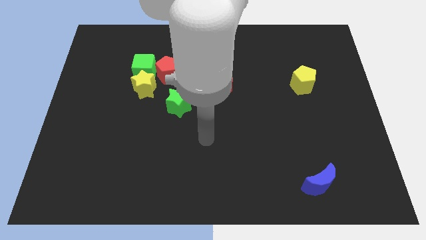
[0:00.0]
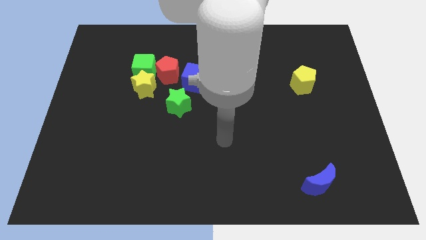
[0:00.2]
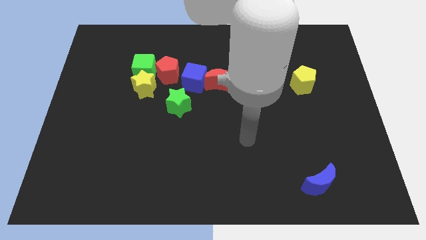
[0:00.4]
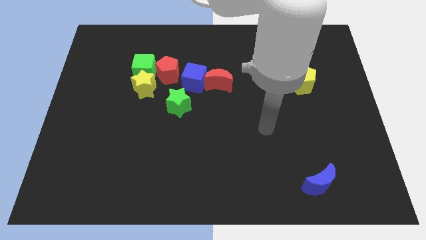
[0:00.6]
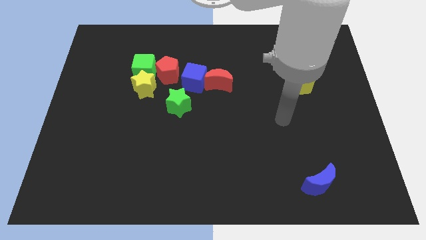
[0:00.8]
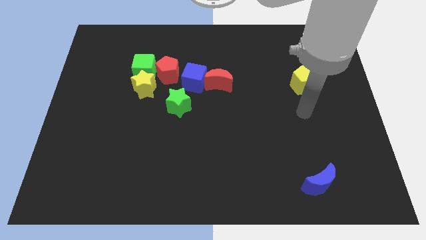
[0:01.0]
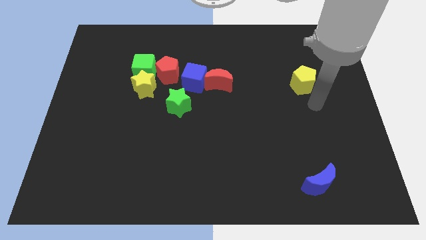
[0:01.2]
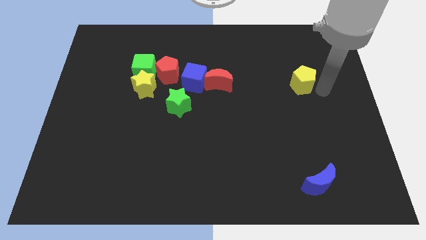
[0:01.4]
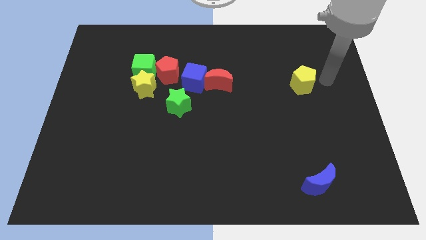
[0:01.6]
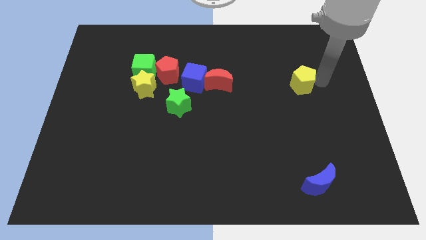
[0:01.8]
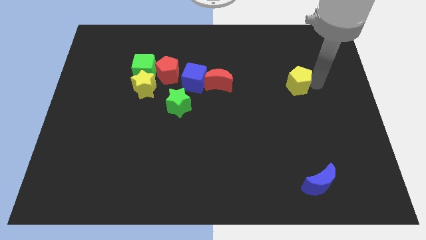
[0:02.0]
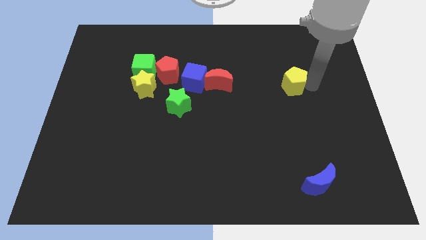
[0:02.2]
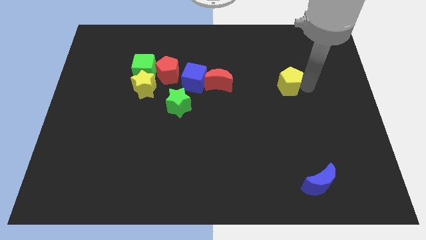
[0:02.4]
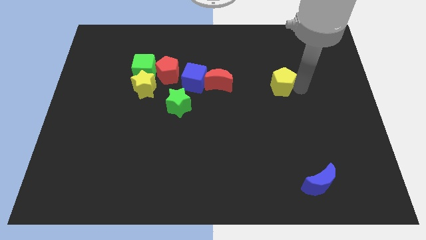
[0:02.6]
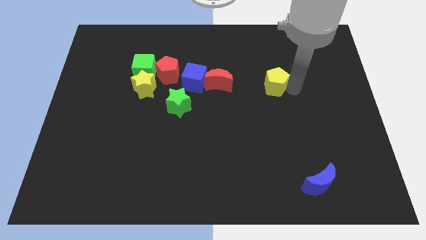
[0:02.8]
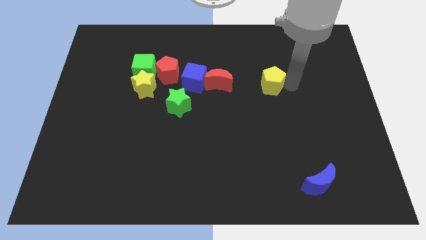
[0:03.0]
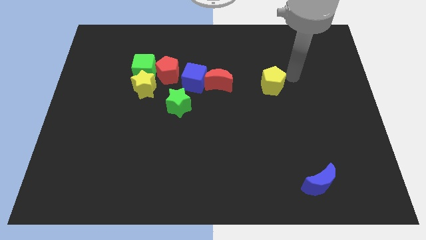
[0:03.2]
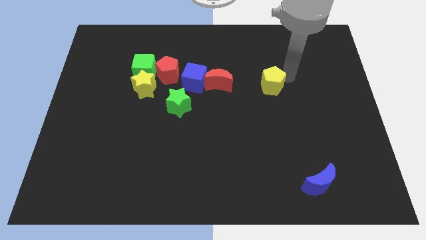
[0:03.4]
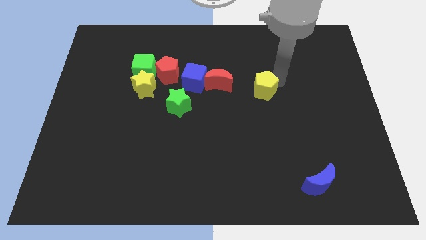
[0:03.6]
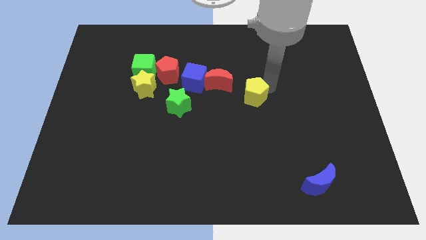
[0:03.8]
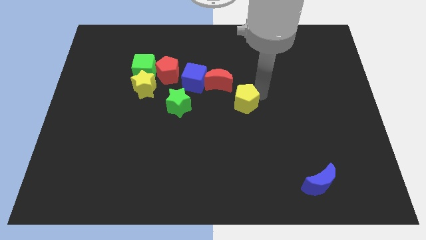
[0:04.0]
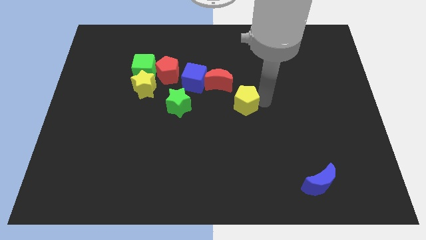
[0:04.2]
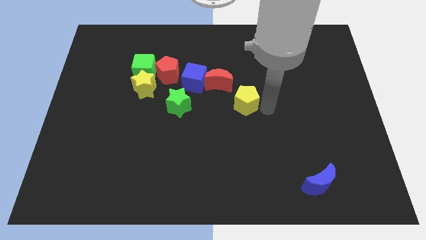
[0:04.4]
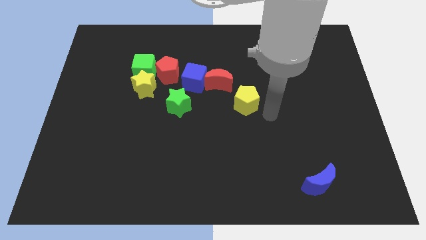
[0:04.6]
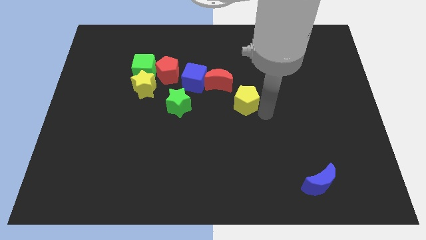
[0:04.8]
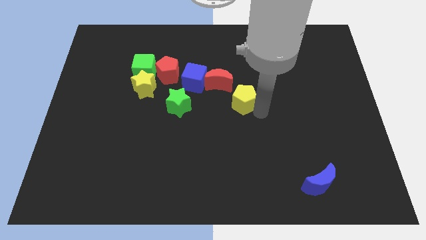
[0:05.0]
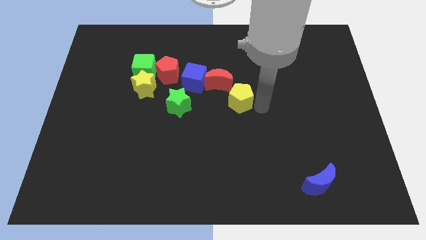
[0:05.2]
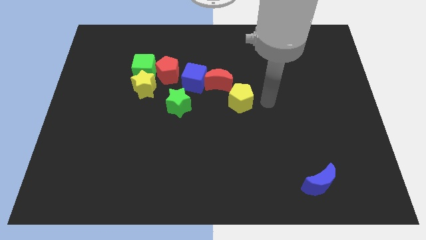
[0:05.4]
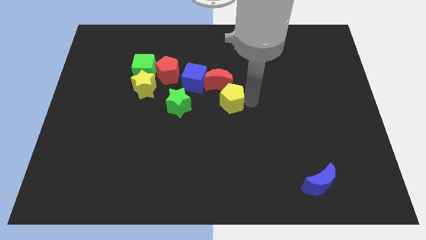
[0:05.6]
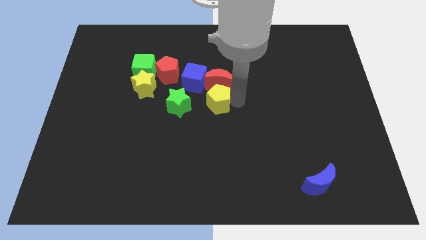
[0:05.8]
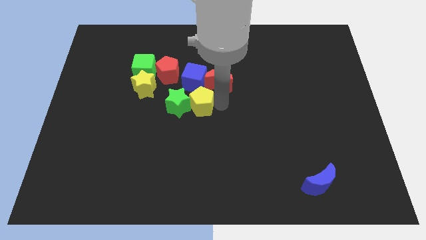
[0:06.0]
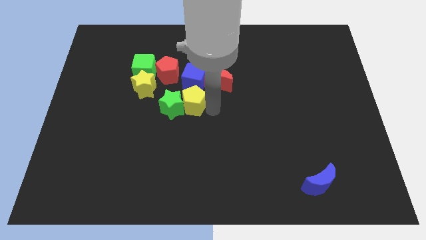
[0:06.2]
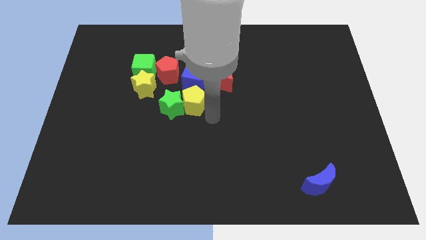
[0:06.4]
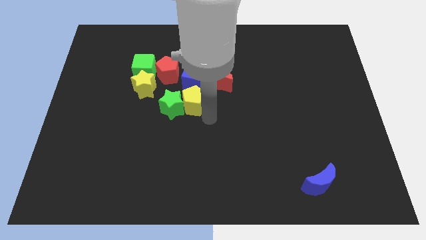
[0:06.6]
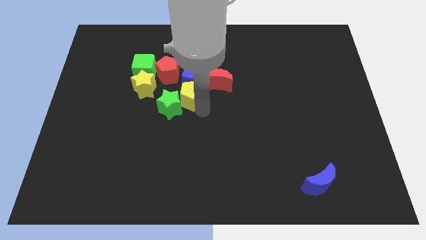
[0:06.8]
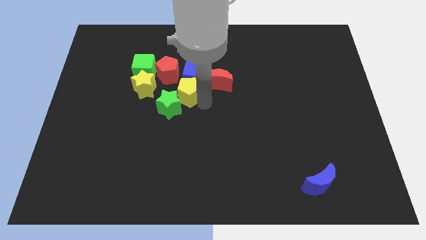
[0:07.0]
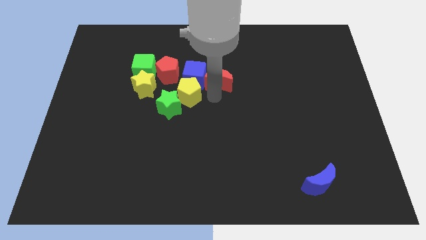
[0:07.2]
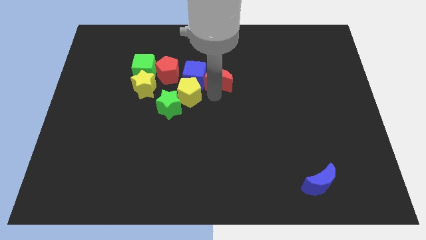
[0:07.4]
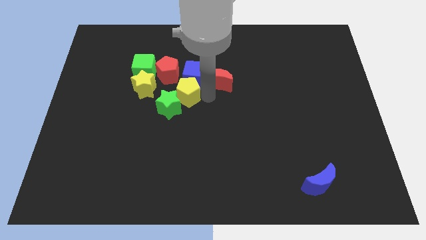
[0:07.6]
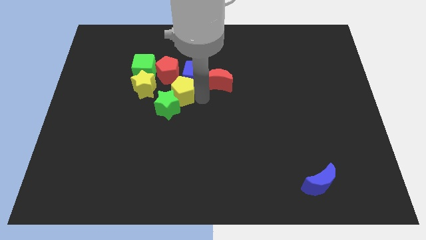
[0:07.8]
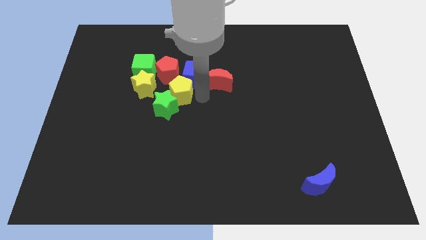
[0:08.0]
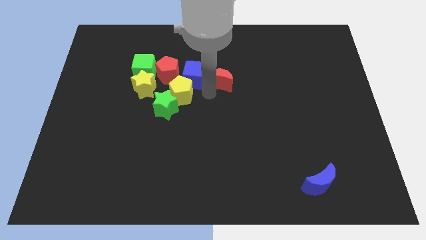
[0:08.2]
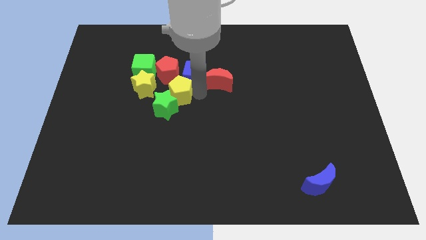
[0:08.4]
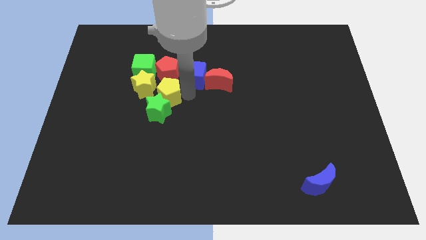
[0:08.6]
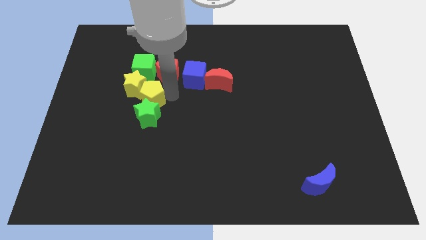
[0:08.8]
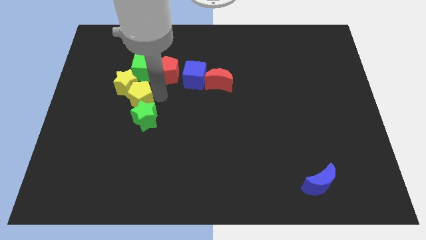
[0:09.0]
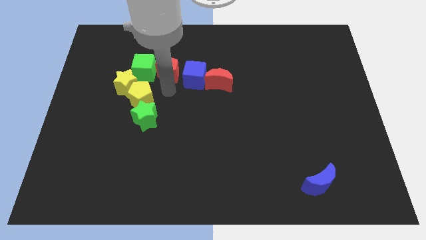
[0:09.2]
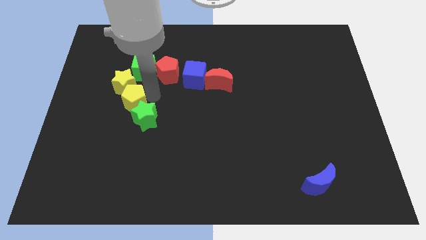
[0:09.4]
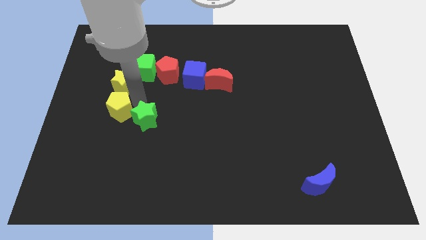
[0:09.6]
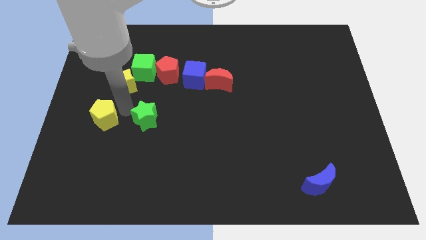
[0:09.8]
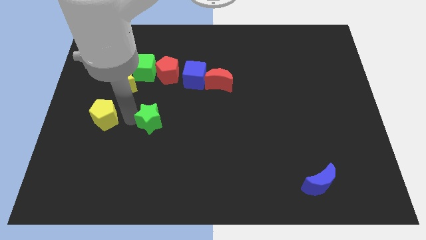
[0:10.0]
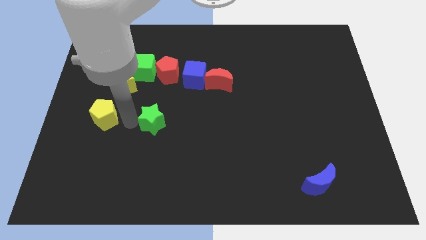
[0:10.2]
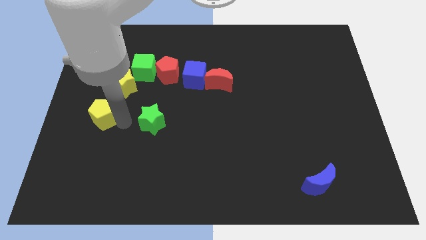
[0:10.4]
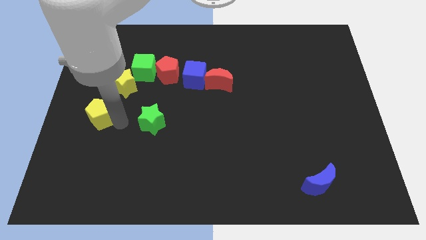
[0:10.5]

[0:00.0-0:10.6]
put the yellow pentagon to the left side

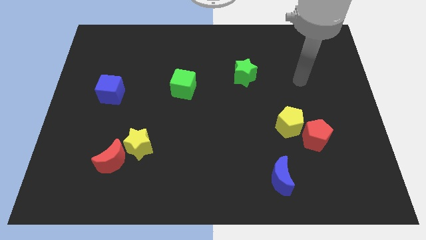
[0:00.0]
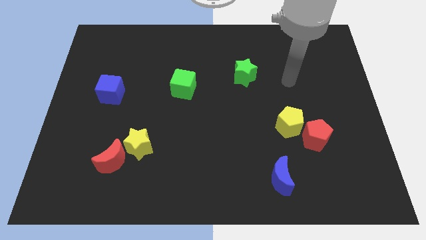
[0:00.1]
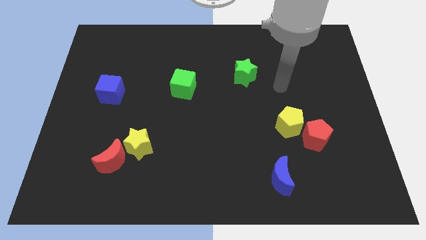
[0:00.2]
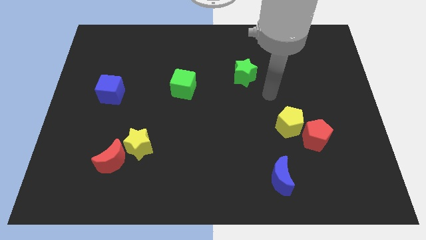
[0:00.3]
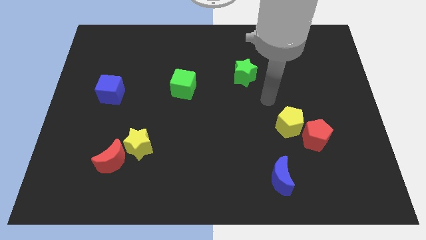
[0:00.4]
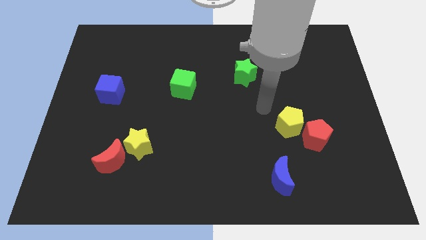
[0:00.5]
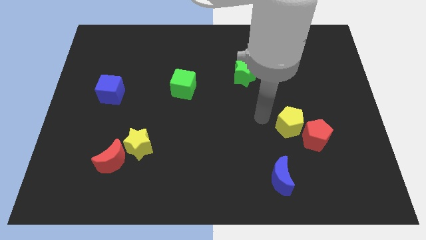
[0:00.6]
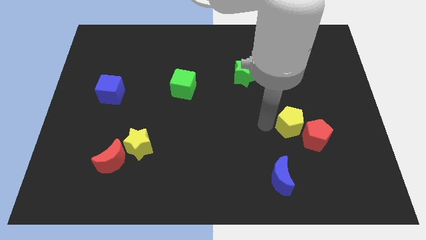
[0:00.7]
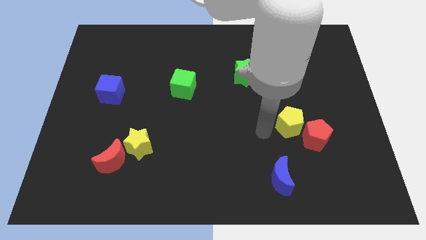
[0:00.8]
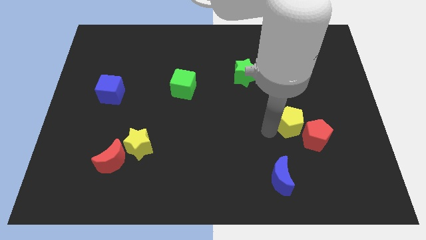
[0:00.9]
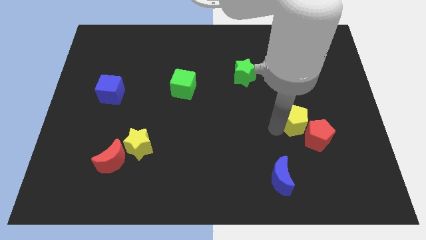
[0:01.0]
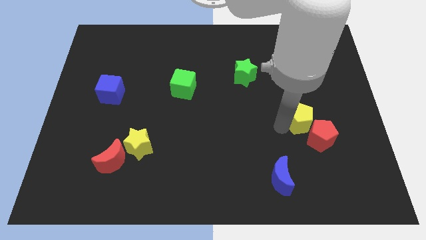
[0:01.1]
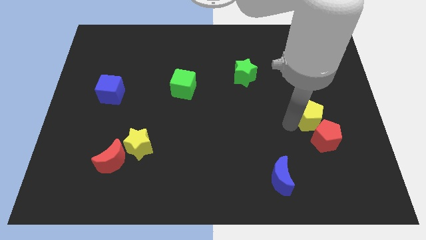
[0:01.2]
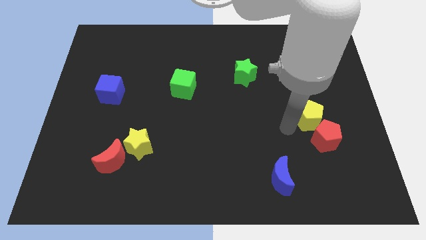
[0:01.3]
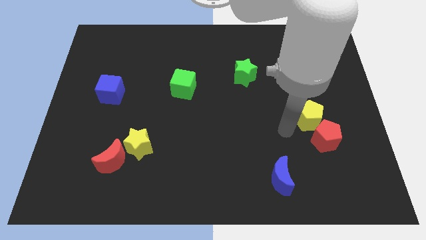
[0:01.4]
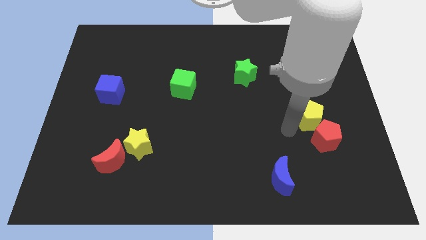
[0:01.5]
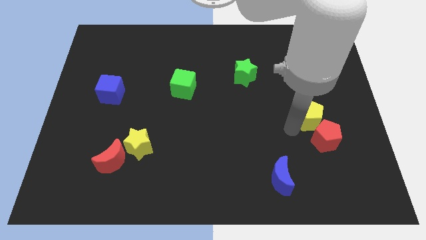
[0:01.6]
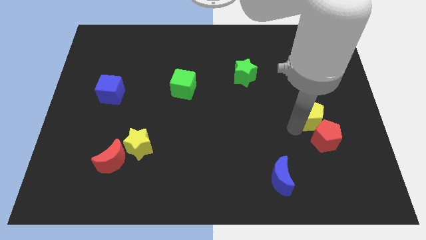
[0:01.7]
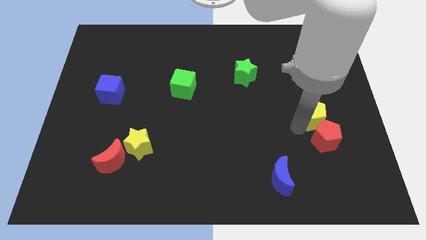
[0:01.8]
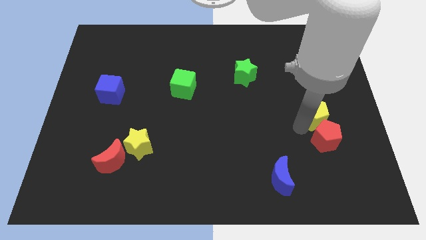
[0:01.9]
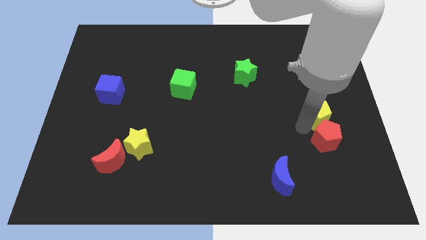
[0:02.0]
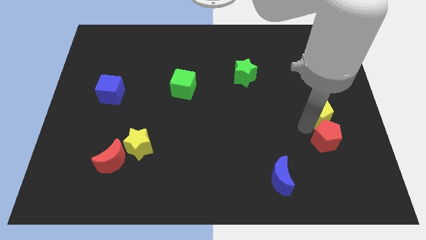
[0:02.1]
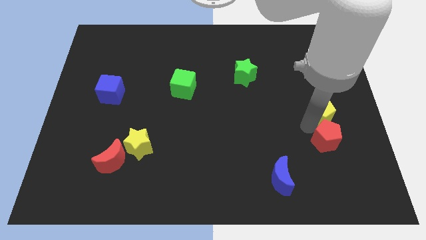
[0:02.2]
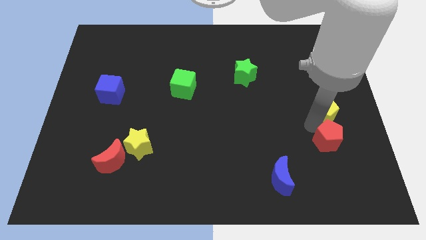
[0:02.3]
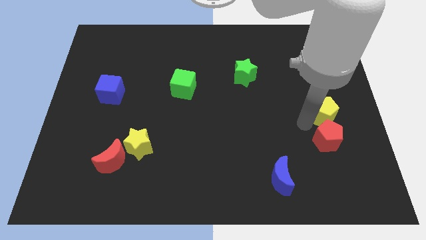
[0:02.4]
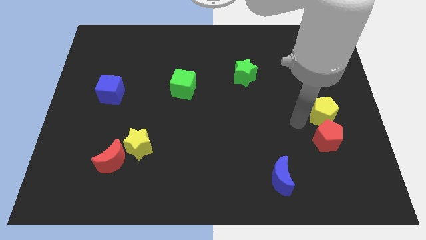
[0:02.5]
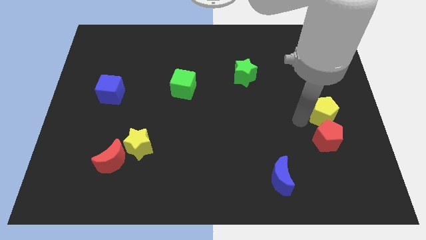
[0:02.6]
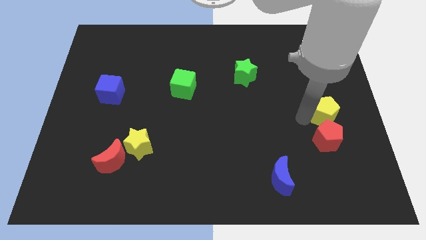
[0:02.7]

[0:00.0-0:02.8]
move the yellow pentagon to the right side of the board
